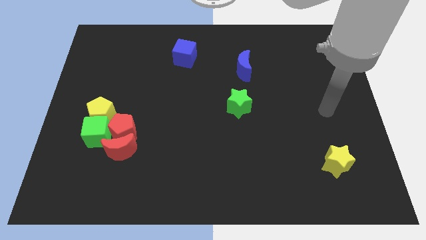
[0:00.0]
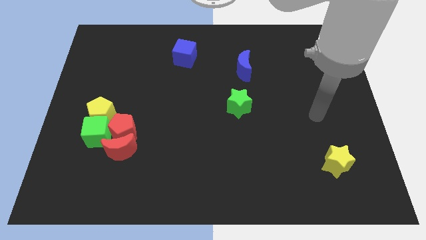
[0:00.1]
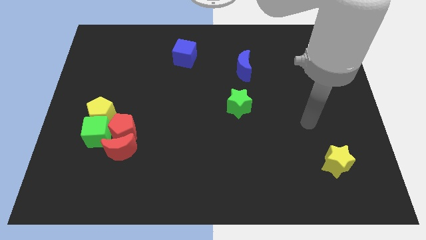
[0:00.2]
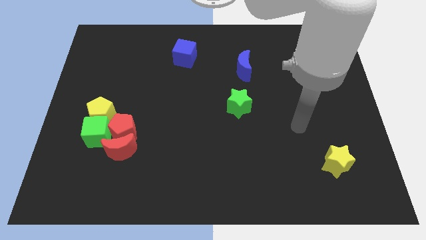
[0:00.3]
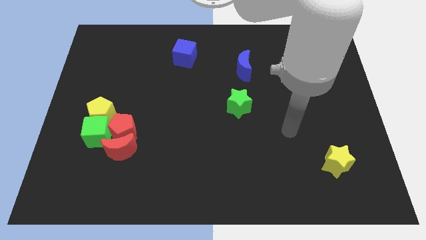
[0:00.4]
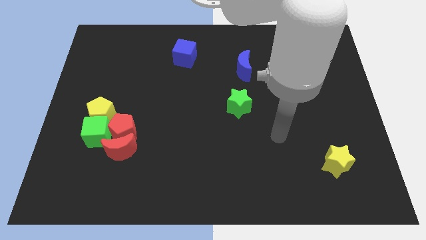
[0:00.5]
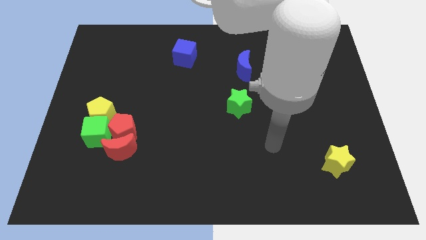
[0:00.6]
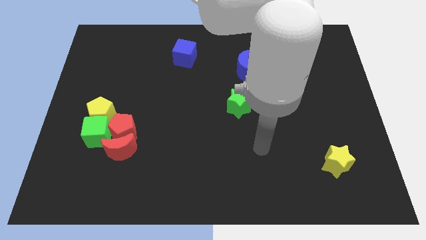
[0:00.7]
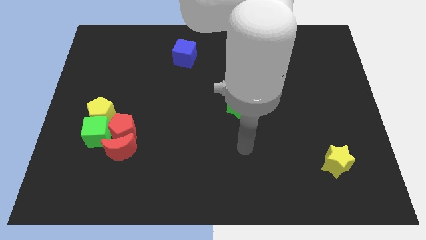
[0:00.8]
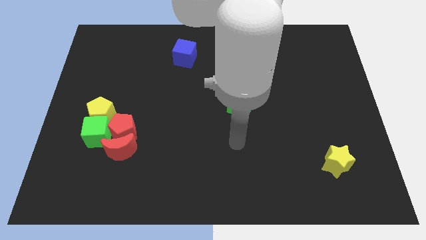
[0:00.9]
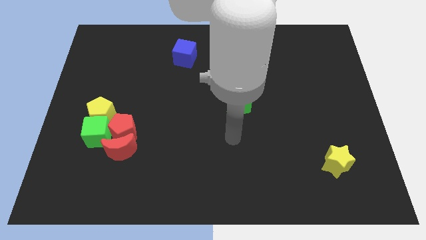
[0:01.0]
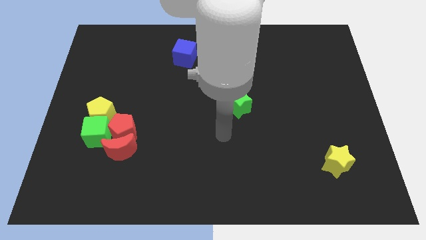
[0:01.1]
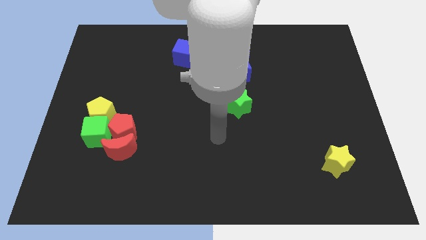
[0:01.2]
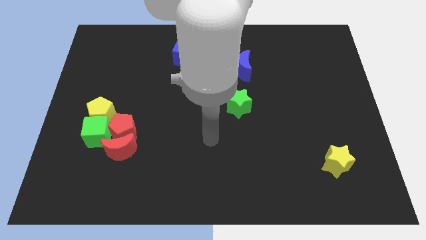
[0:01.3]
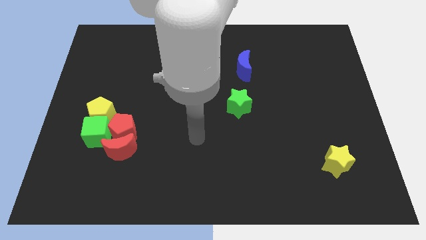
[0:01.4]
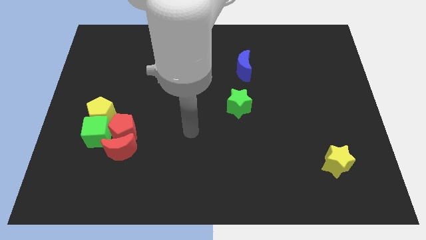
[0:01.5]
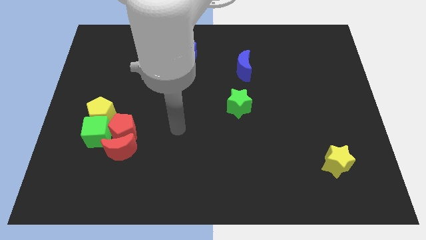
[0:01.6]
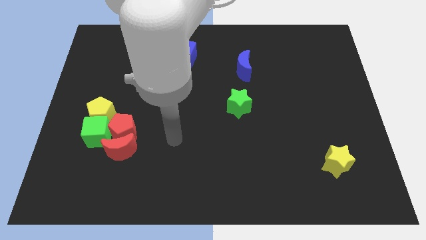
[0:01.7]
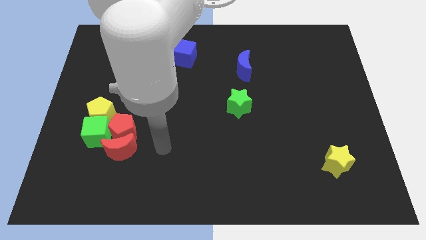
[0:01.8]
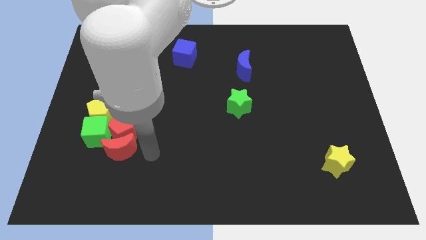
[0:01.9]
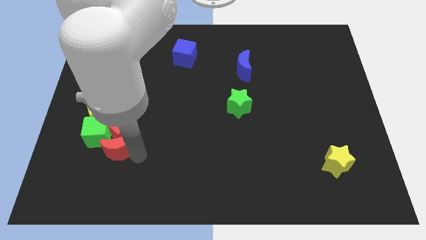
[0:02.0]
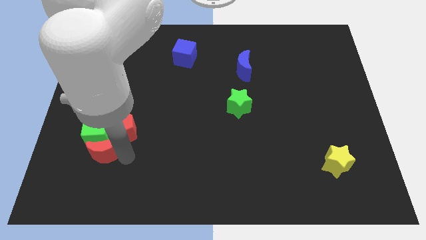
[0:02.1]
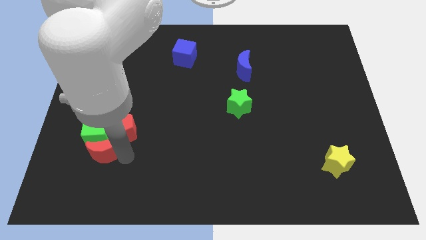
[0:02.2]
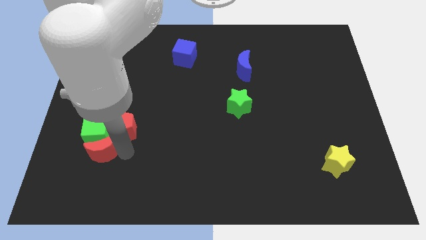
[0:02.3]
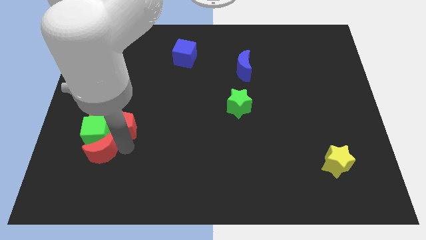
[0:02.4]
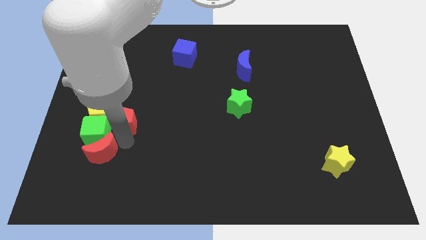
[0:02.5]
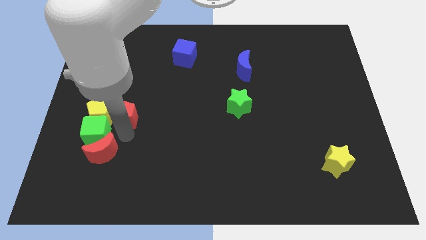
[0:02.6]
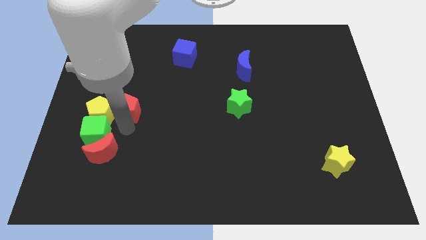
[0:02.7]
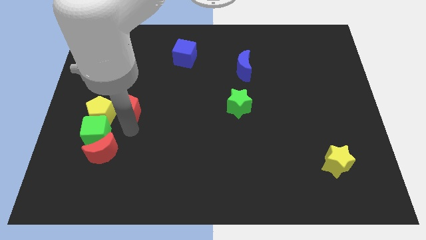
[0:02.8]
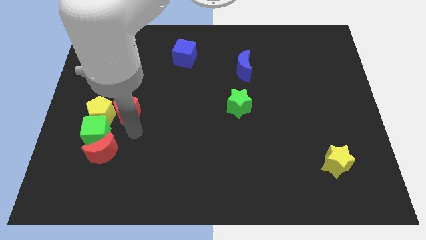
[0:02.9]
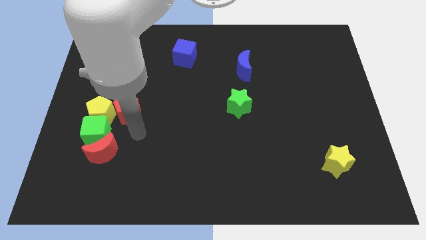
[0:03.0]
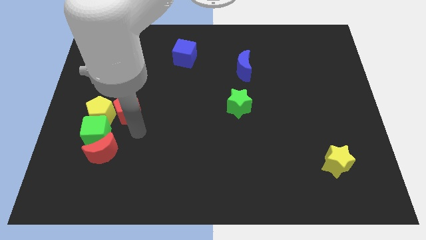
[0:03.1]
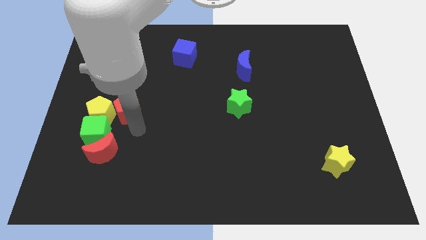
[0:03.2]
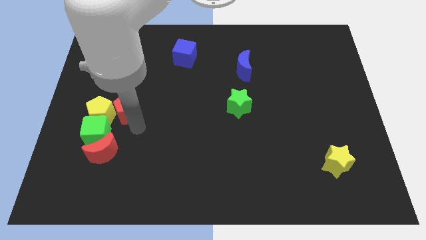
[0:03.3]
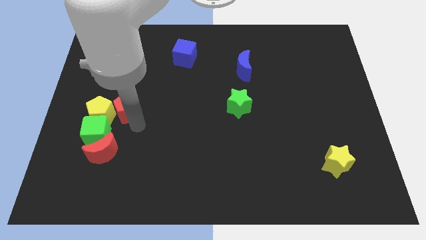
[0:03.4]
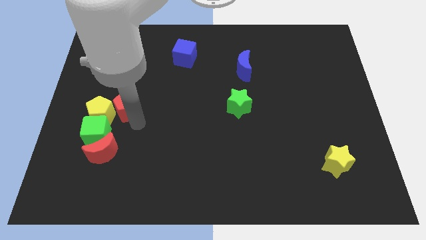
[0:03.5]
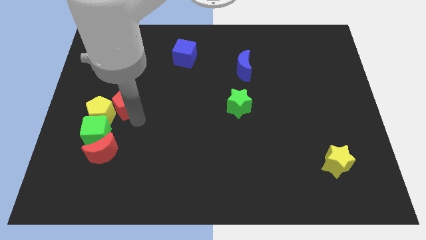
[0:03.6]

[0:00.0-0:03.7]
slightly slide the red pentagon up

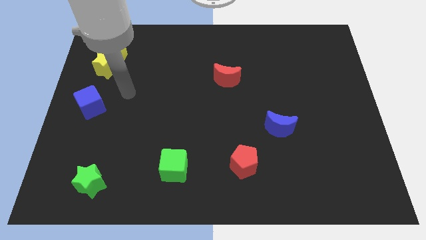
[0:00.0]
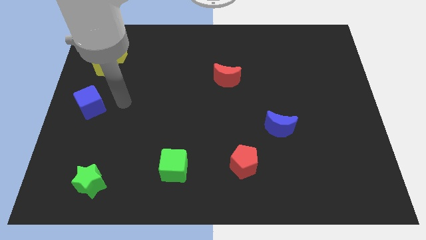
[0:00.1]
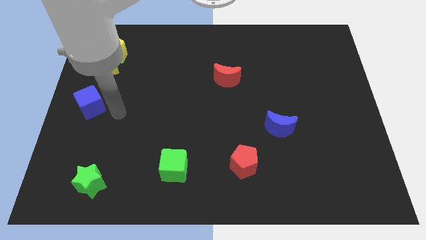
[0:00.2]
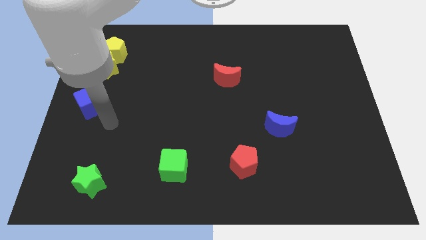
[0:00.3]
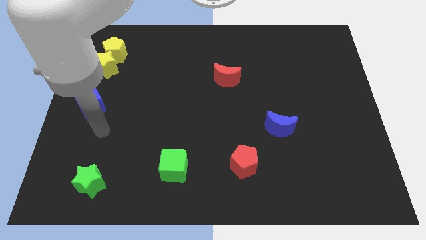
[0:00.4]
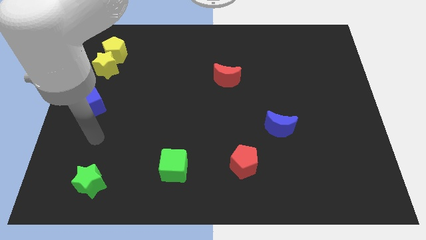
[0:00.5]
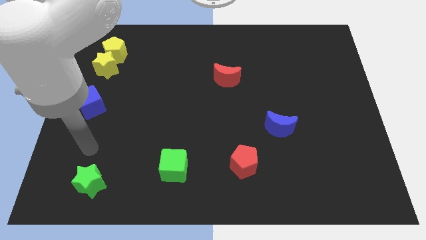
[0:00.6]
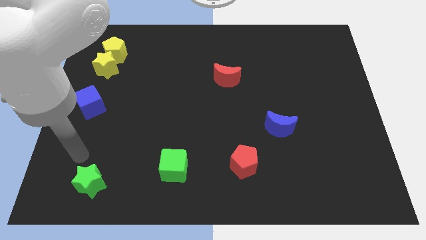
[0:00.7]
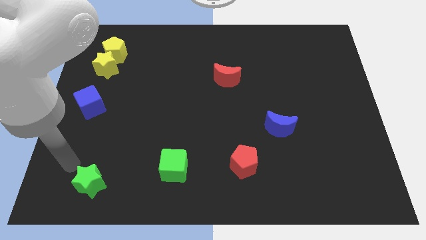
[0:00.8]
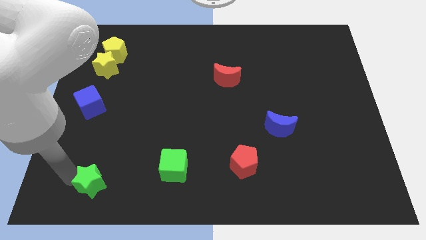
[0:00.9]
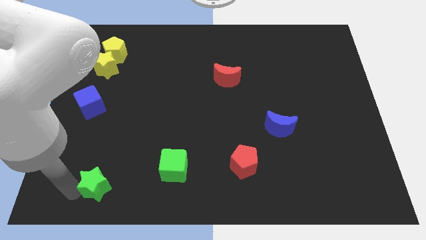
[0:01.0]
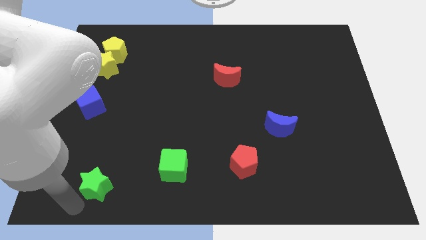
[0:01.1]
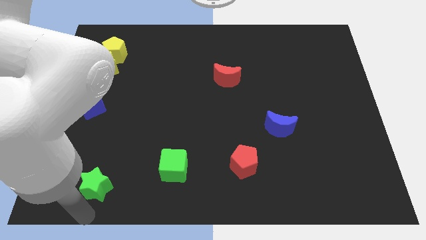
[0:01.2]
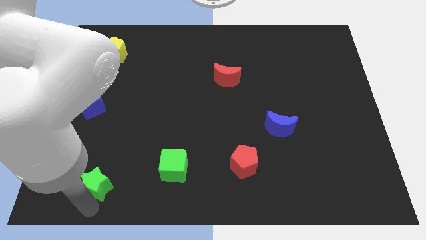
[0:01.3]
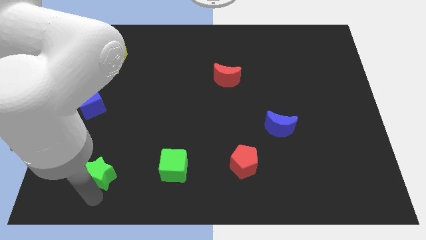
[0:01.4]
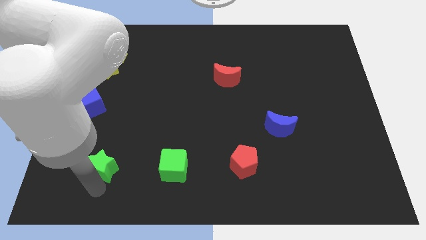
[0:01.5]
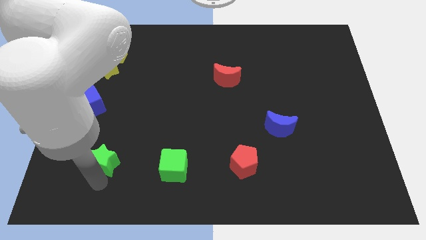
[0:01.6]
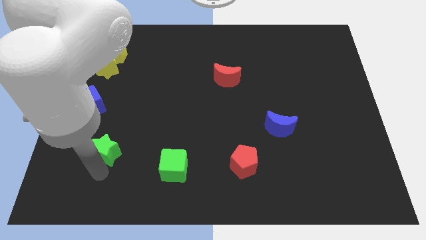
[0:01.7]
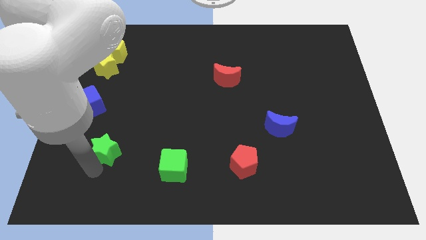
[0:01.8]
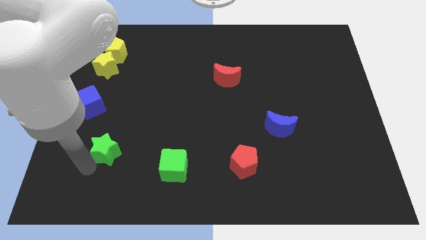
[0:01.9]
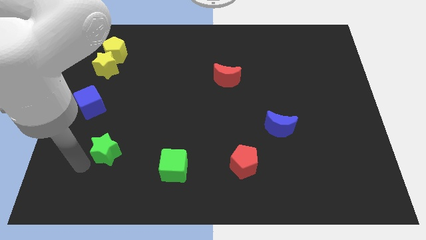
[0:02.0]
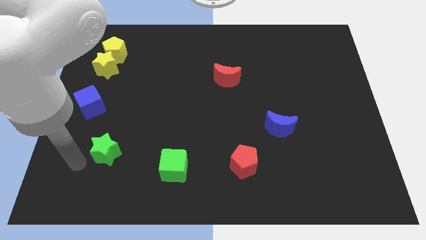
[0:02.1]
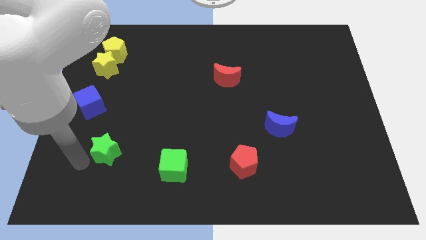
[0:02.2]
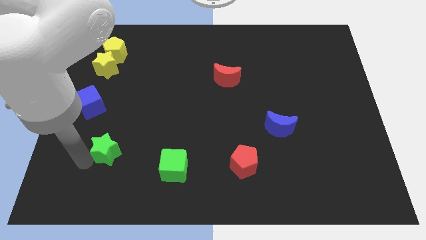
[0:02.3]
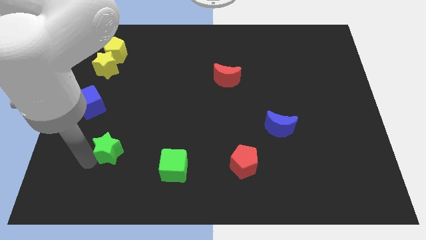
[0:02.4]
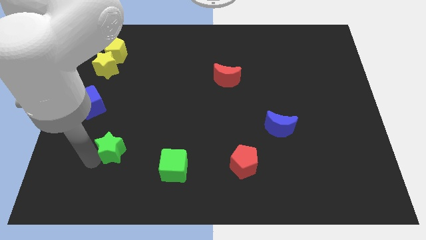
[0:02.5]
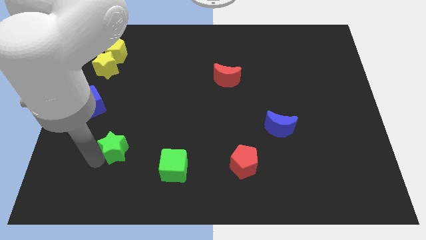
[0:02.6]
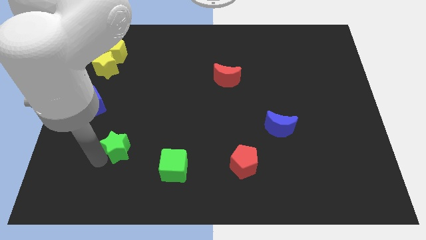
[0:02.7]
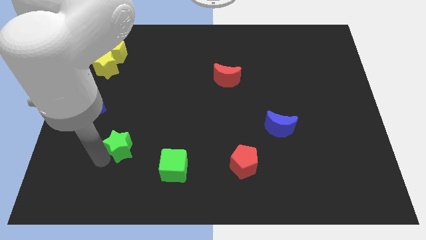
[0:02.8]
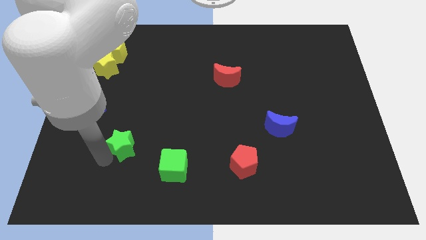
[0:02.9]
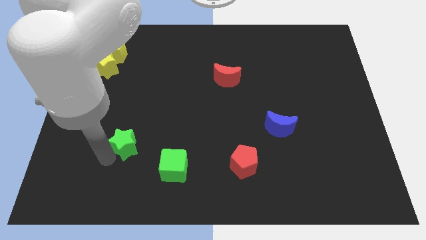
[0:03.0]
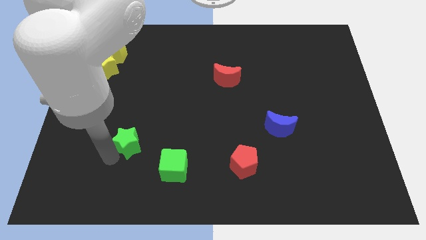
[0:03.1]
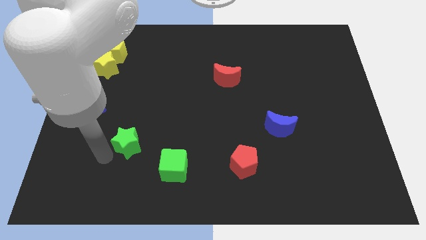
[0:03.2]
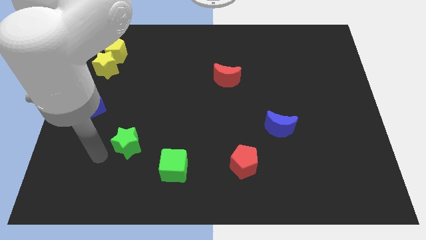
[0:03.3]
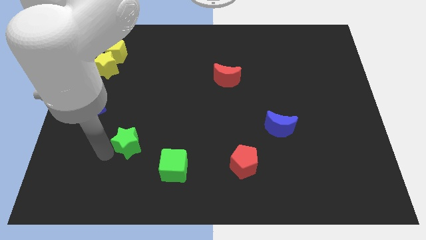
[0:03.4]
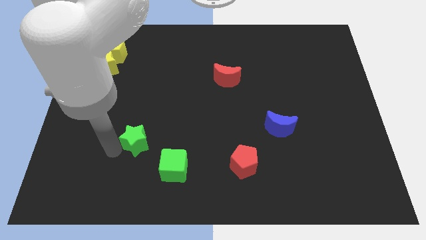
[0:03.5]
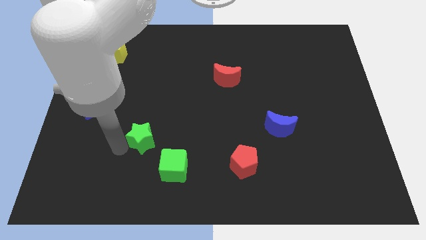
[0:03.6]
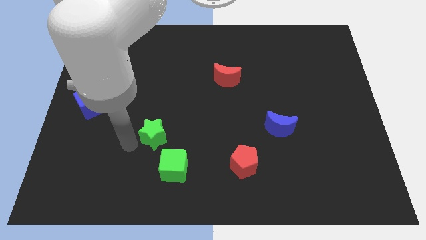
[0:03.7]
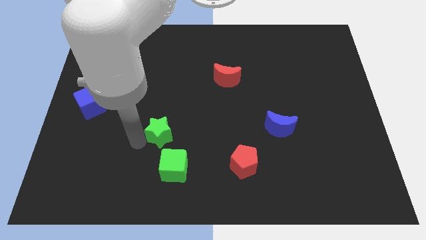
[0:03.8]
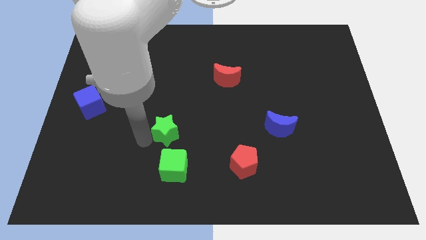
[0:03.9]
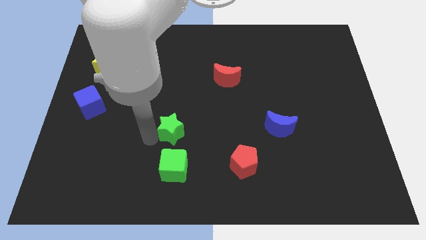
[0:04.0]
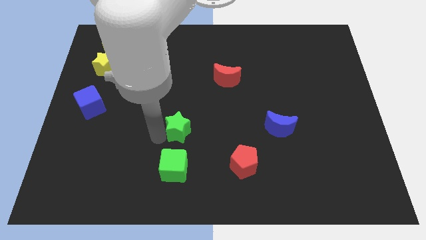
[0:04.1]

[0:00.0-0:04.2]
slide the green star up and to the right diagonally
